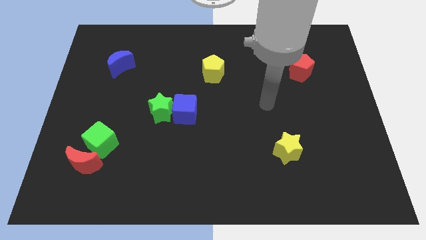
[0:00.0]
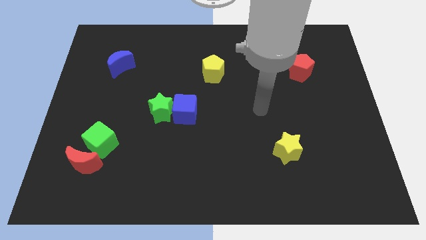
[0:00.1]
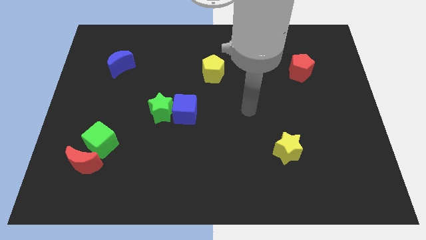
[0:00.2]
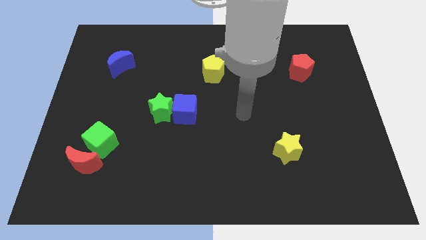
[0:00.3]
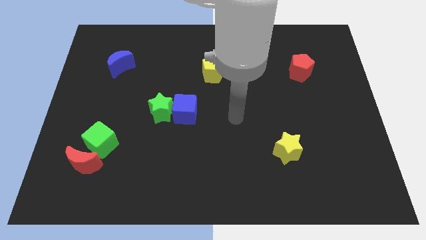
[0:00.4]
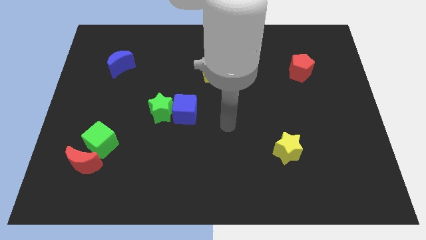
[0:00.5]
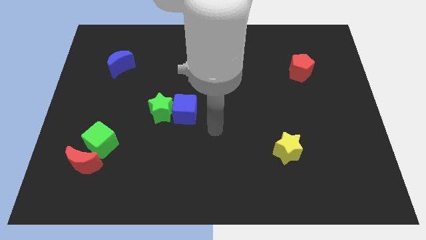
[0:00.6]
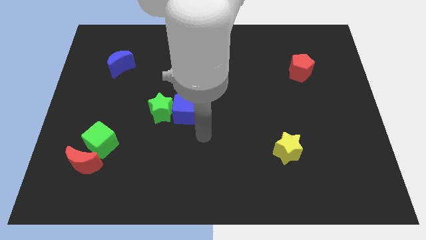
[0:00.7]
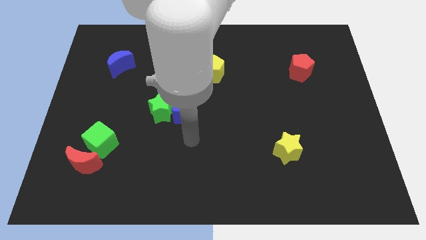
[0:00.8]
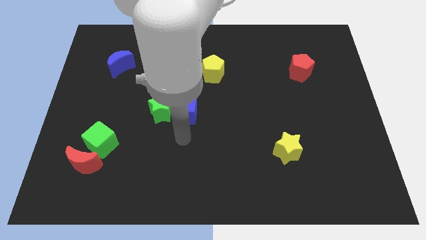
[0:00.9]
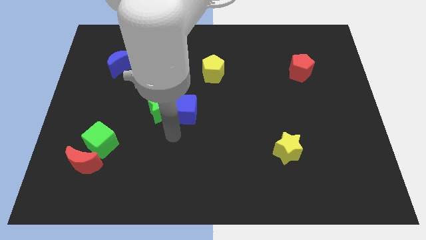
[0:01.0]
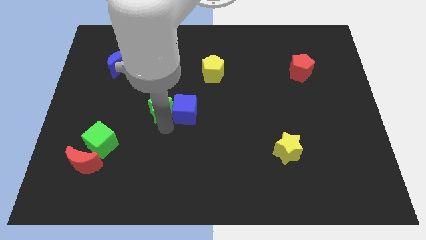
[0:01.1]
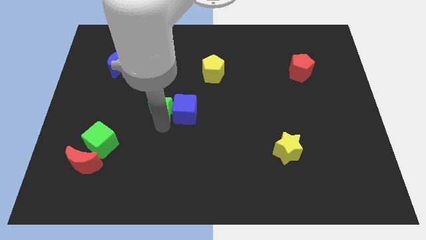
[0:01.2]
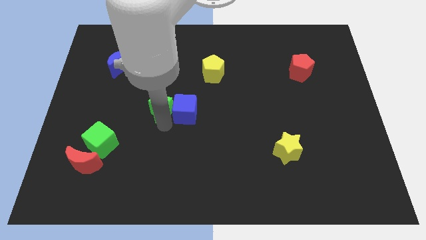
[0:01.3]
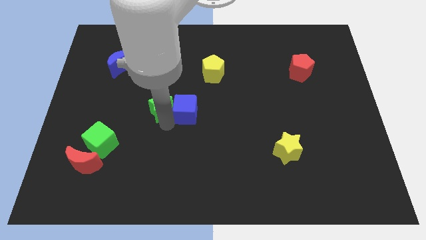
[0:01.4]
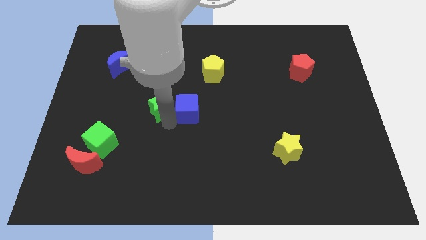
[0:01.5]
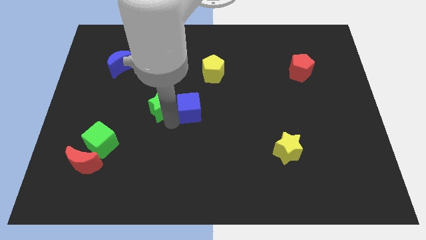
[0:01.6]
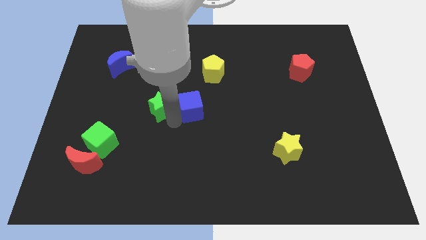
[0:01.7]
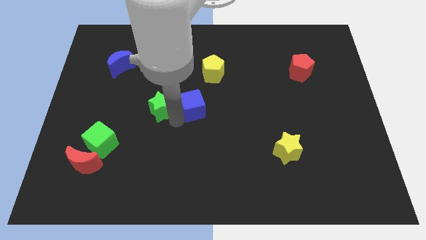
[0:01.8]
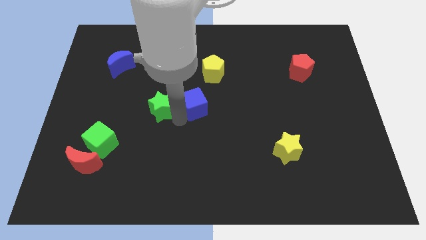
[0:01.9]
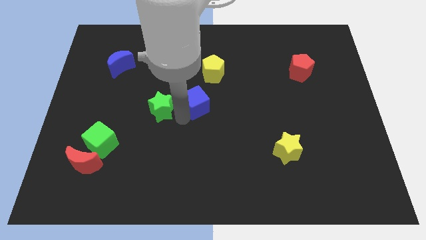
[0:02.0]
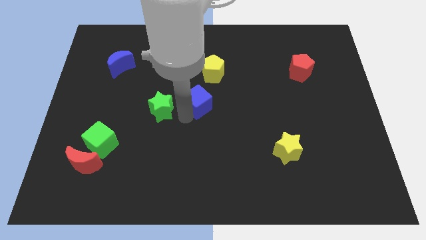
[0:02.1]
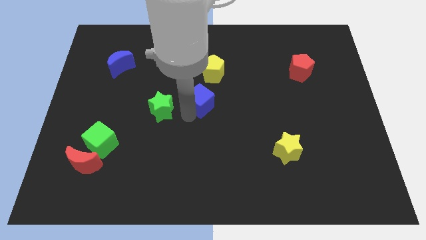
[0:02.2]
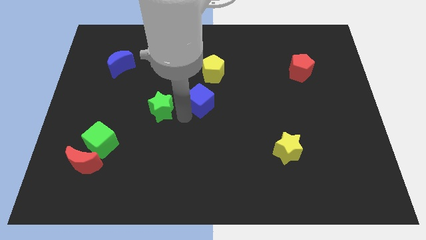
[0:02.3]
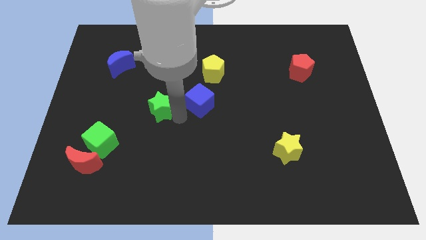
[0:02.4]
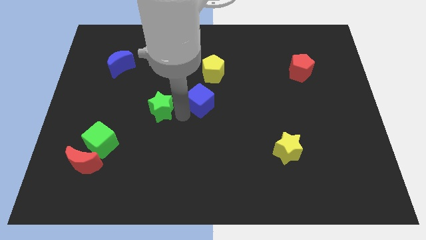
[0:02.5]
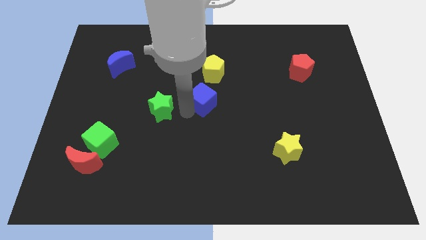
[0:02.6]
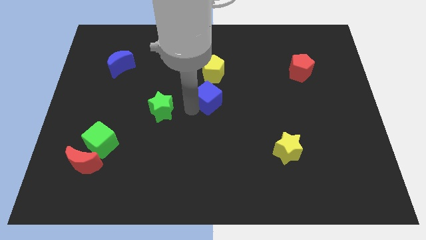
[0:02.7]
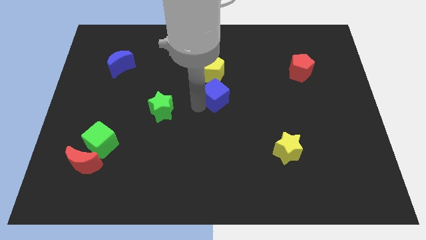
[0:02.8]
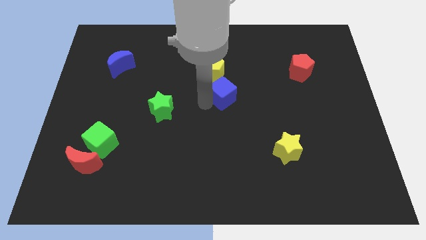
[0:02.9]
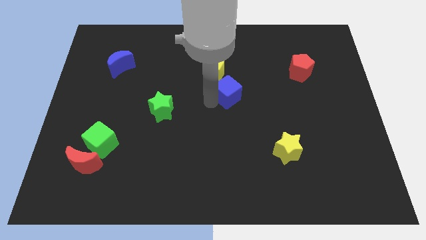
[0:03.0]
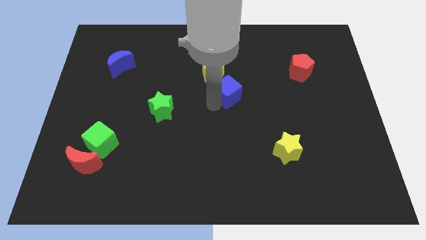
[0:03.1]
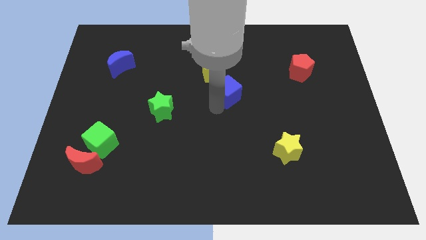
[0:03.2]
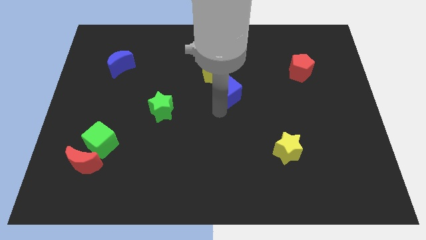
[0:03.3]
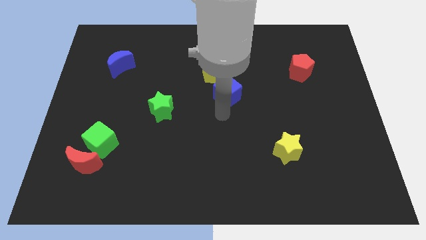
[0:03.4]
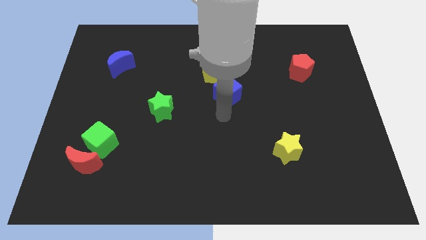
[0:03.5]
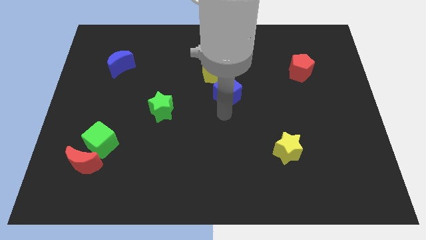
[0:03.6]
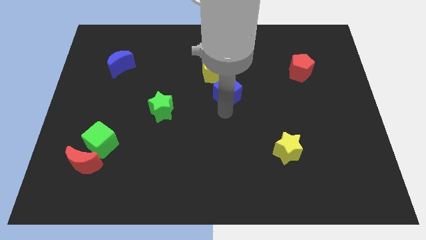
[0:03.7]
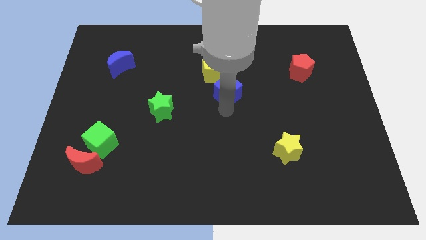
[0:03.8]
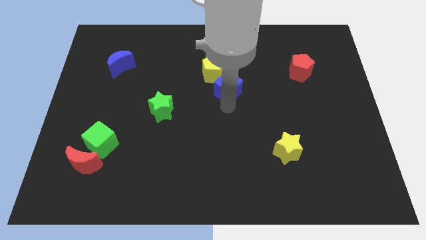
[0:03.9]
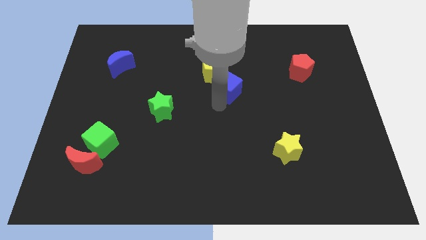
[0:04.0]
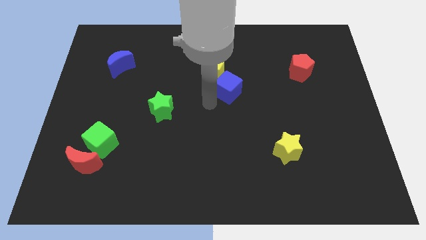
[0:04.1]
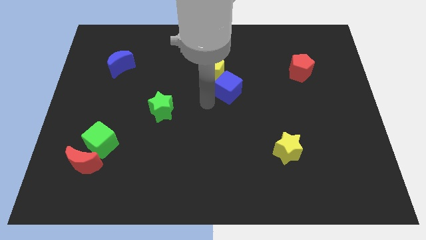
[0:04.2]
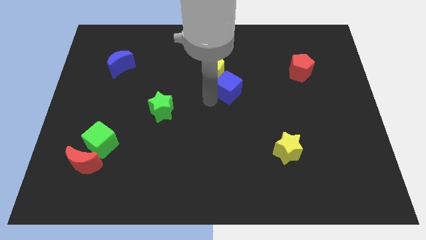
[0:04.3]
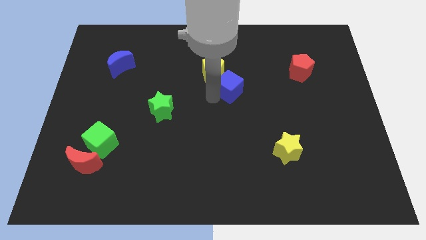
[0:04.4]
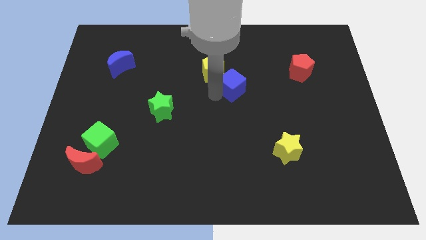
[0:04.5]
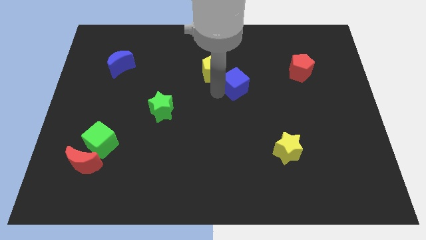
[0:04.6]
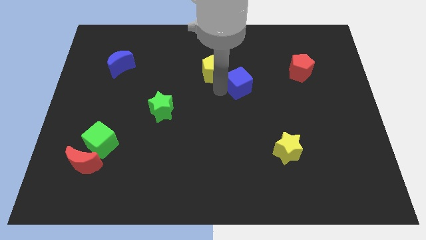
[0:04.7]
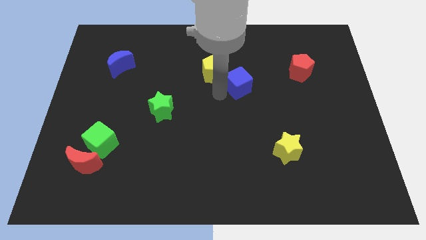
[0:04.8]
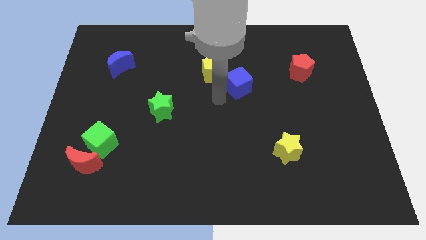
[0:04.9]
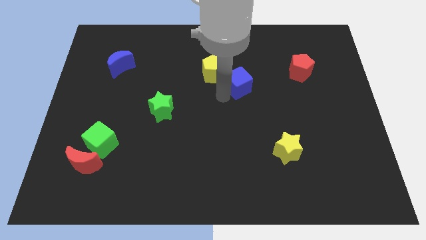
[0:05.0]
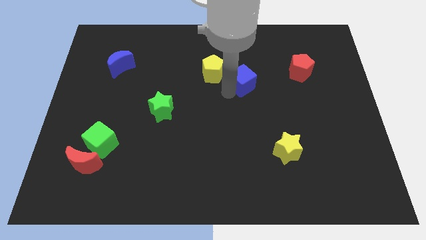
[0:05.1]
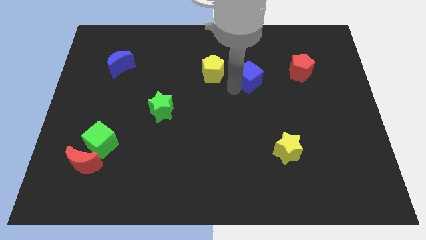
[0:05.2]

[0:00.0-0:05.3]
move the blue cube to the left side of the red pentagon

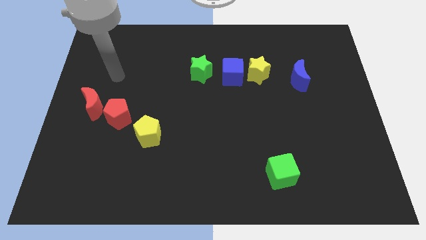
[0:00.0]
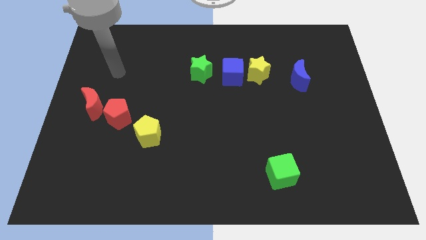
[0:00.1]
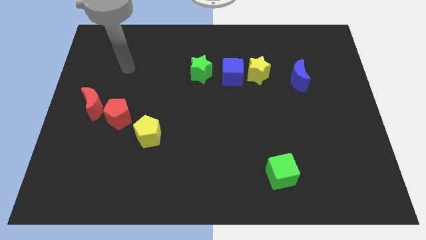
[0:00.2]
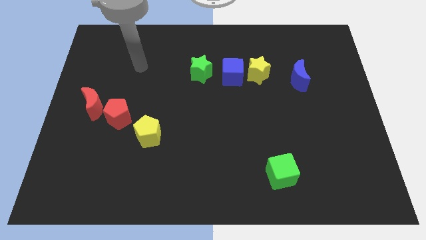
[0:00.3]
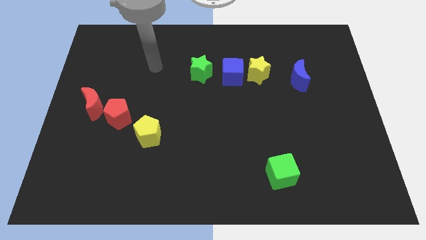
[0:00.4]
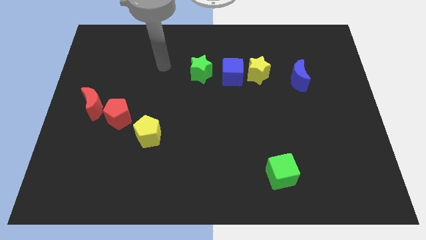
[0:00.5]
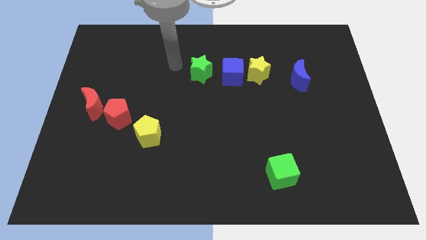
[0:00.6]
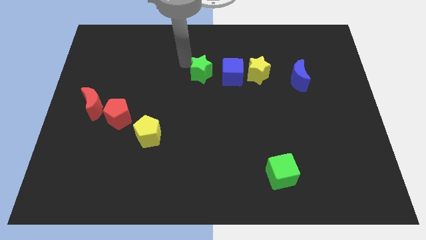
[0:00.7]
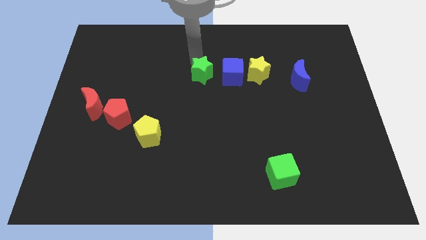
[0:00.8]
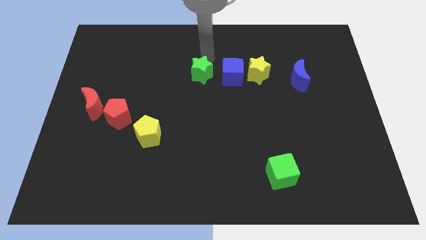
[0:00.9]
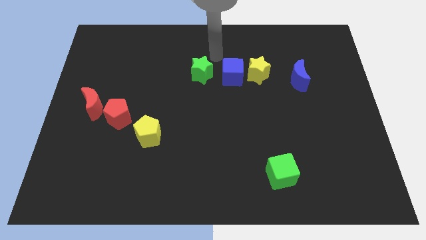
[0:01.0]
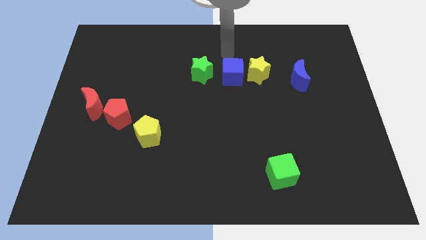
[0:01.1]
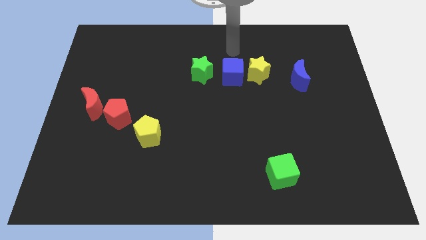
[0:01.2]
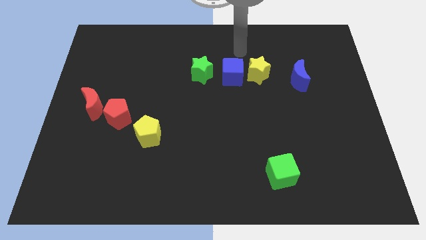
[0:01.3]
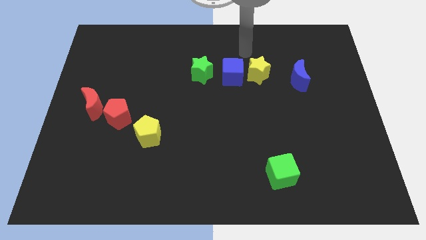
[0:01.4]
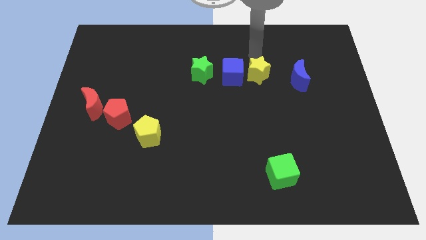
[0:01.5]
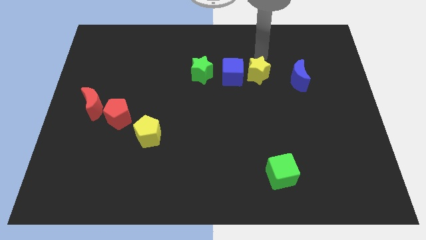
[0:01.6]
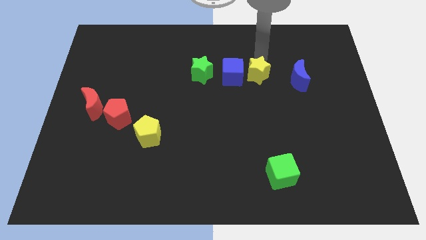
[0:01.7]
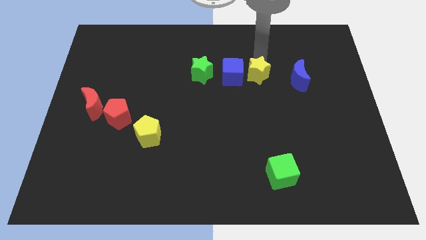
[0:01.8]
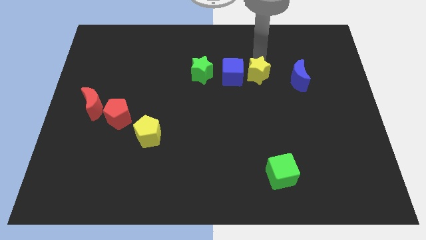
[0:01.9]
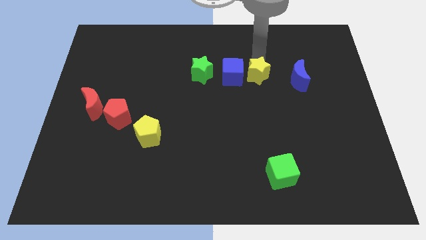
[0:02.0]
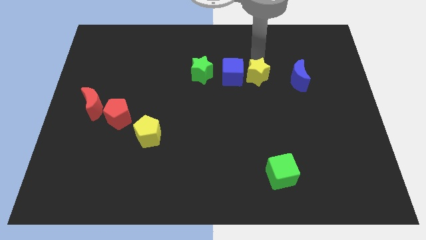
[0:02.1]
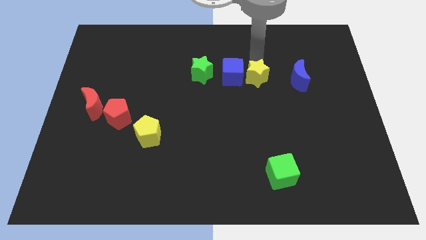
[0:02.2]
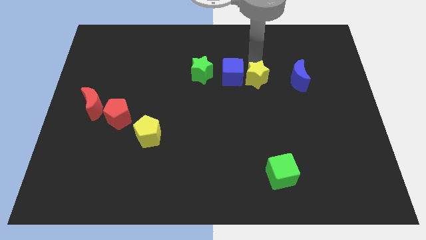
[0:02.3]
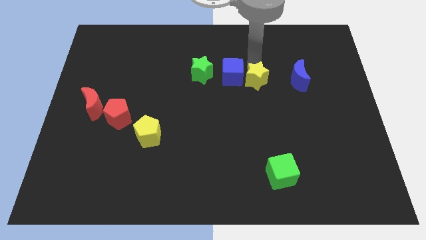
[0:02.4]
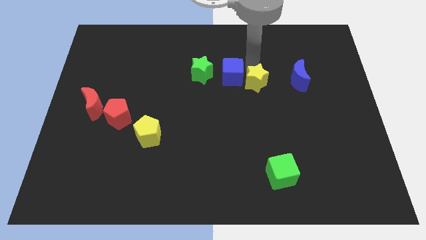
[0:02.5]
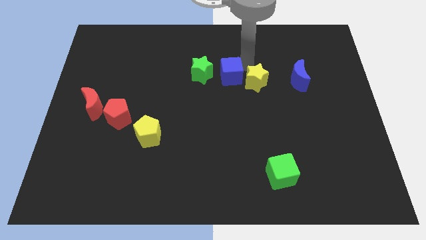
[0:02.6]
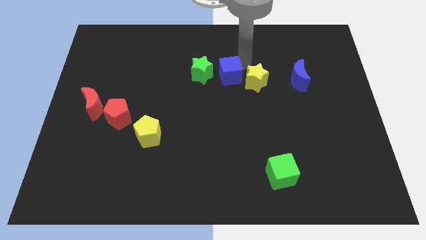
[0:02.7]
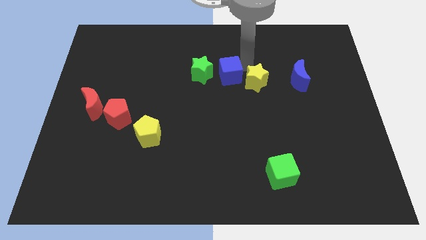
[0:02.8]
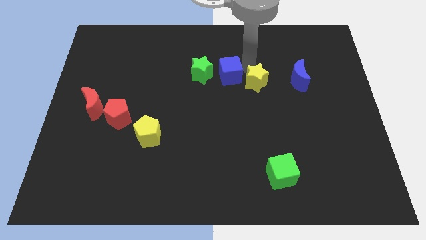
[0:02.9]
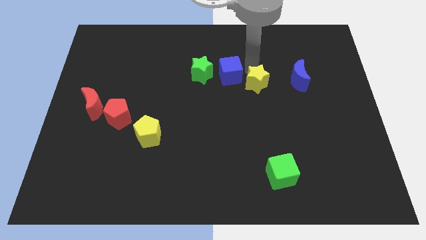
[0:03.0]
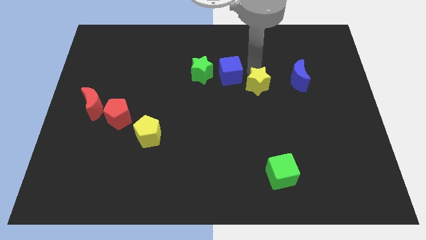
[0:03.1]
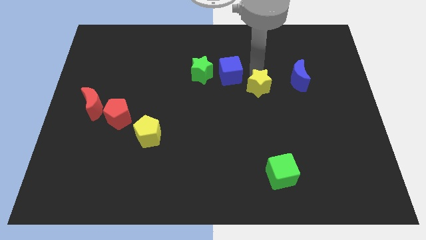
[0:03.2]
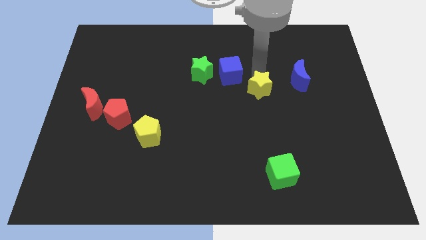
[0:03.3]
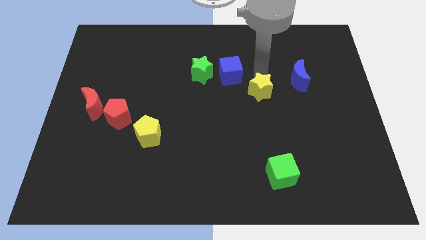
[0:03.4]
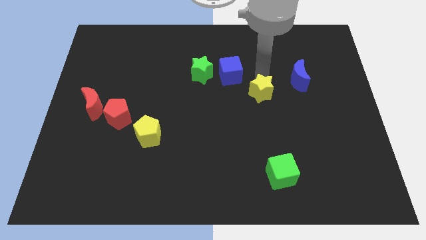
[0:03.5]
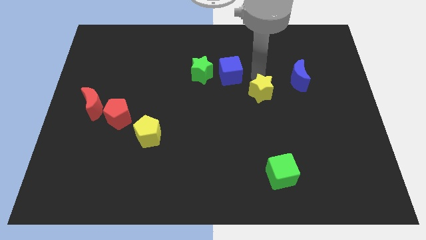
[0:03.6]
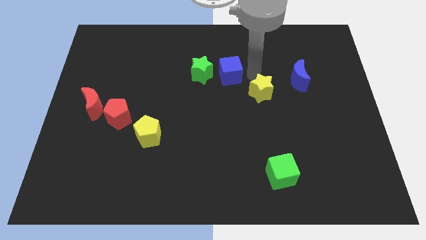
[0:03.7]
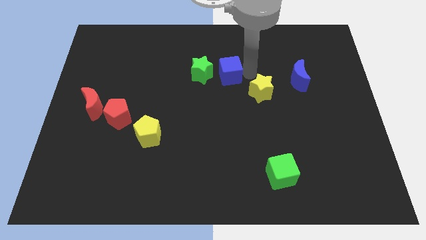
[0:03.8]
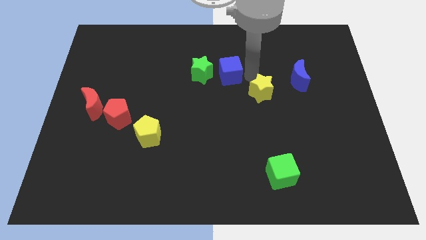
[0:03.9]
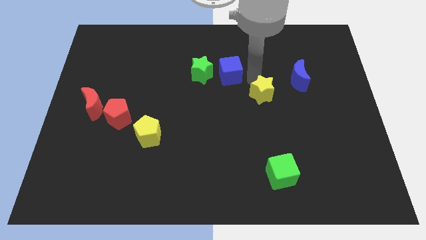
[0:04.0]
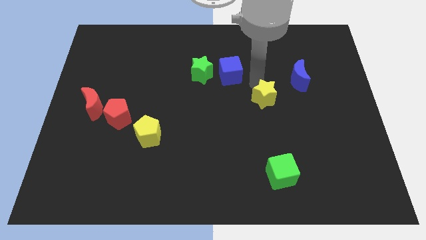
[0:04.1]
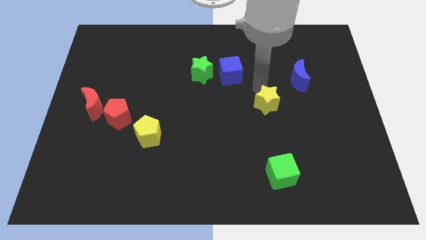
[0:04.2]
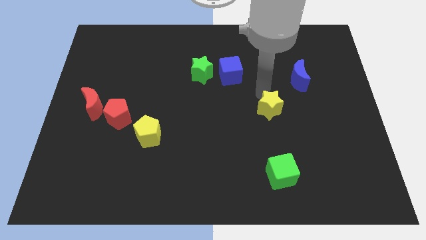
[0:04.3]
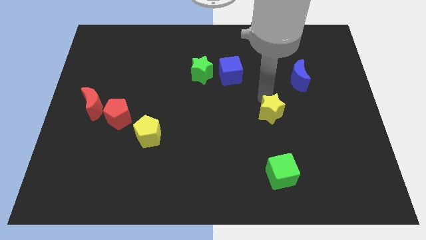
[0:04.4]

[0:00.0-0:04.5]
put the yellow star to the top side of the green cube
